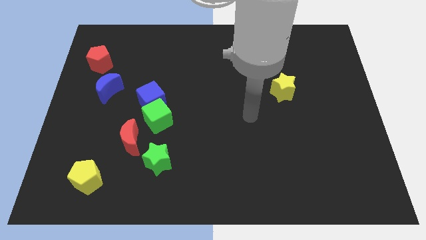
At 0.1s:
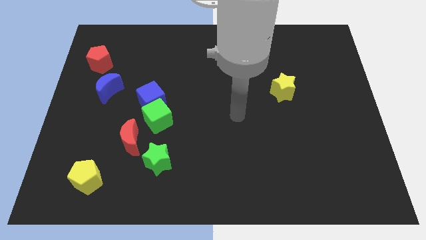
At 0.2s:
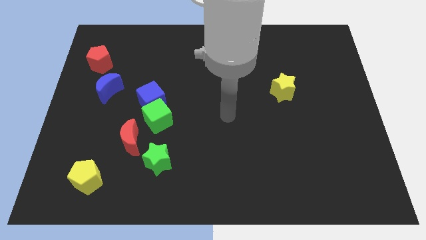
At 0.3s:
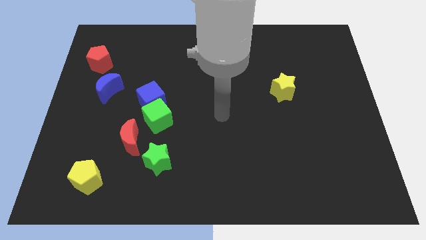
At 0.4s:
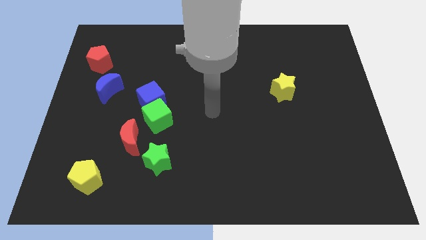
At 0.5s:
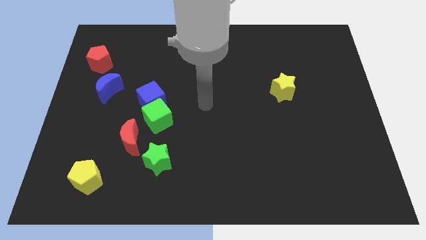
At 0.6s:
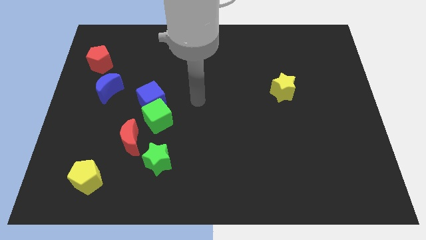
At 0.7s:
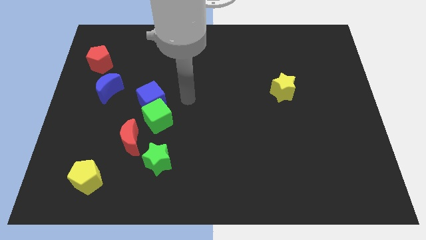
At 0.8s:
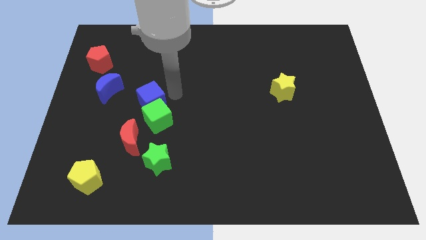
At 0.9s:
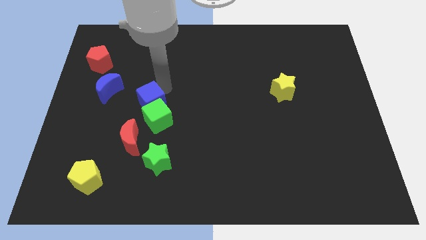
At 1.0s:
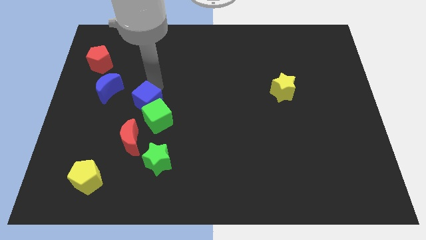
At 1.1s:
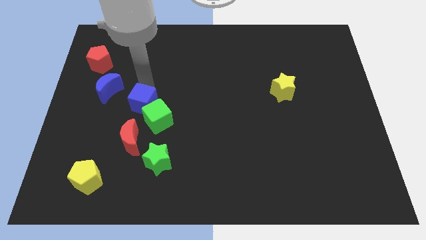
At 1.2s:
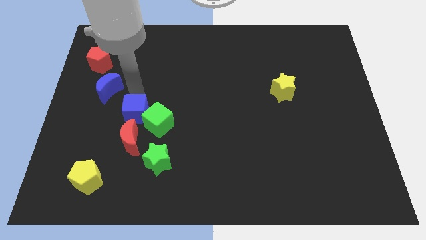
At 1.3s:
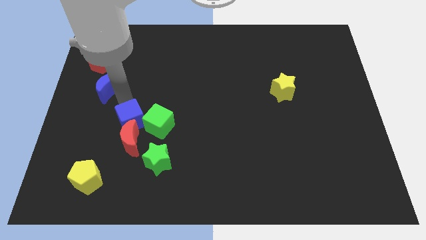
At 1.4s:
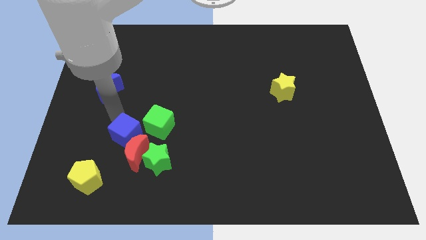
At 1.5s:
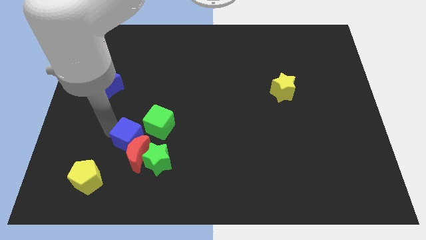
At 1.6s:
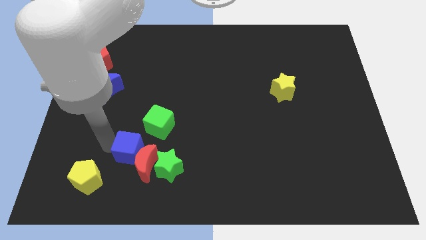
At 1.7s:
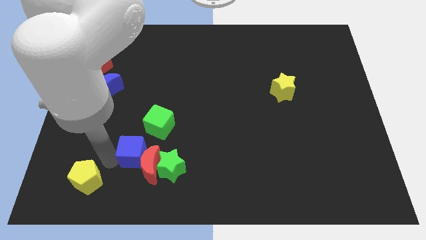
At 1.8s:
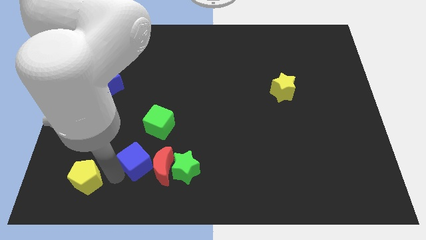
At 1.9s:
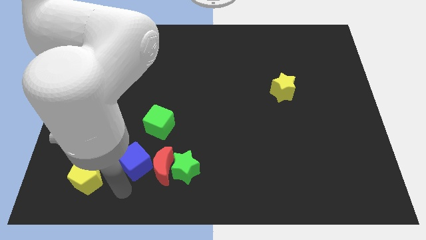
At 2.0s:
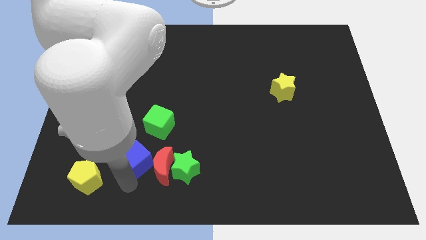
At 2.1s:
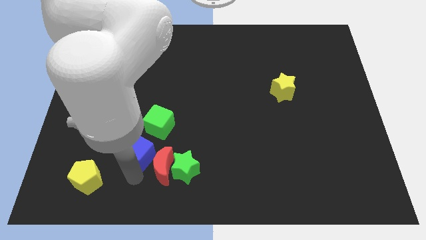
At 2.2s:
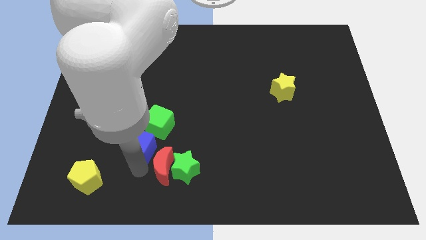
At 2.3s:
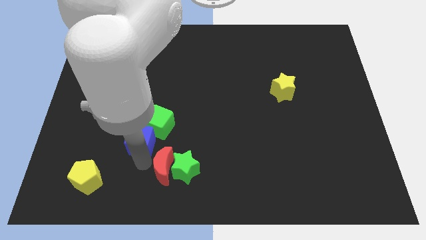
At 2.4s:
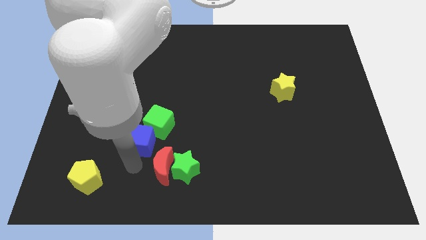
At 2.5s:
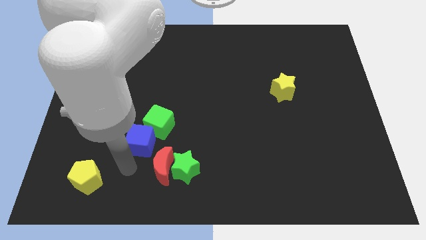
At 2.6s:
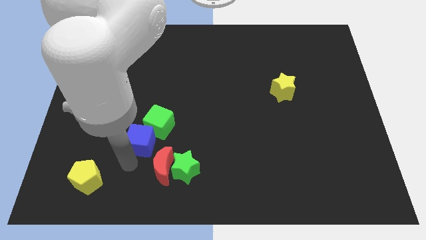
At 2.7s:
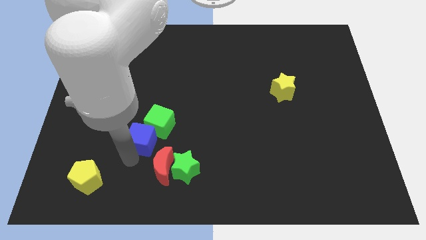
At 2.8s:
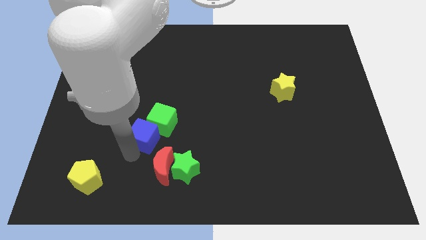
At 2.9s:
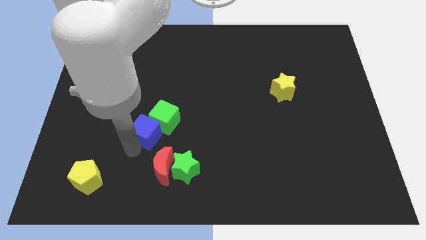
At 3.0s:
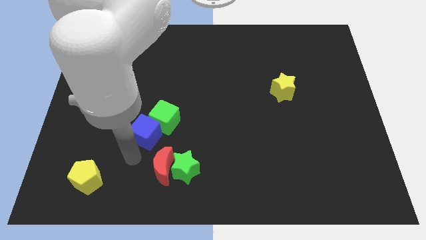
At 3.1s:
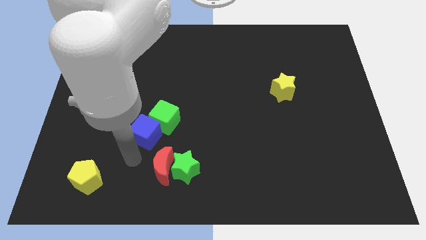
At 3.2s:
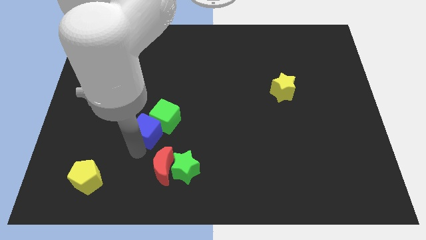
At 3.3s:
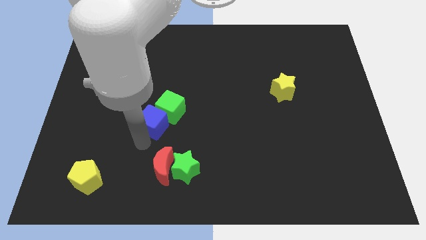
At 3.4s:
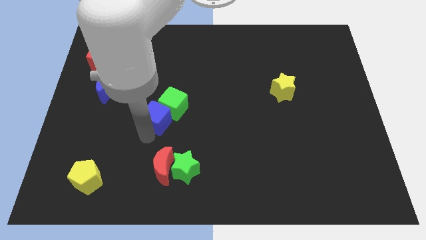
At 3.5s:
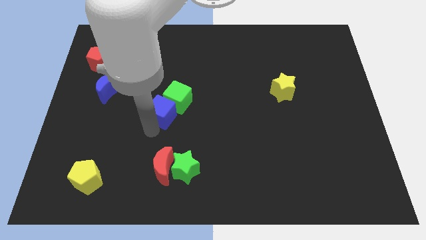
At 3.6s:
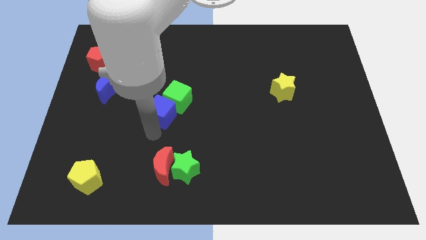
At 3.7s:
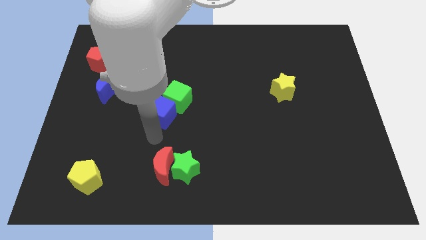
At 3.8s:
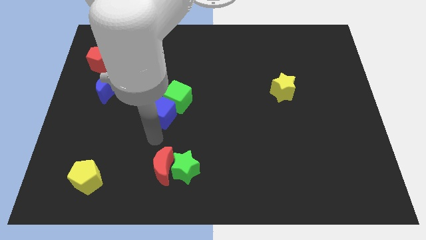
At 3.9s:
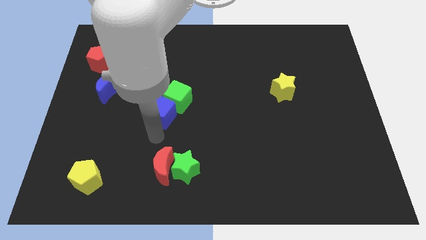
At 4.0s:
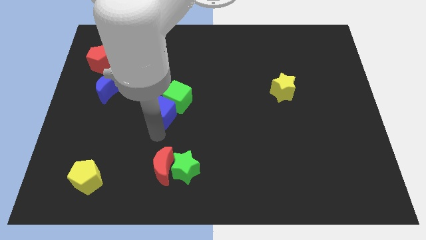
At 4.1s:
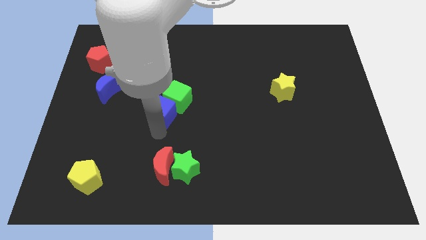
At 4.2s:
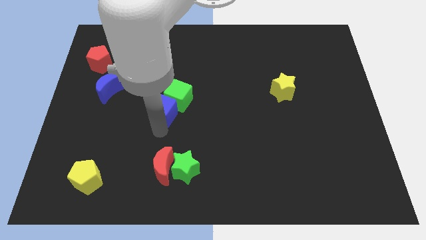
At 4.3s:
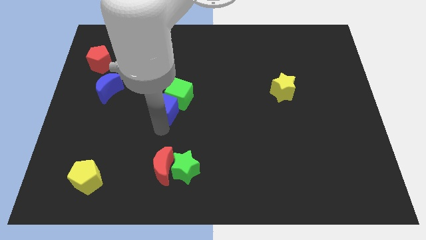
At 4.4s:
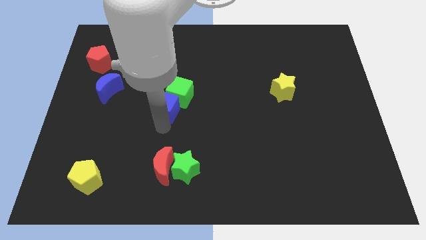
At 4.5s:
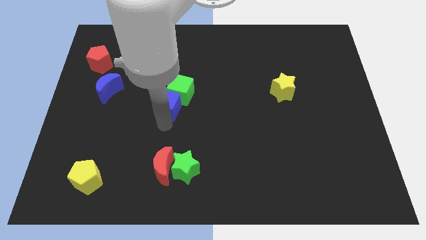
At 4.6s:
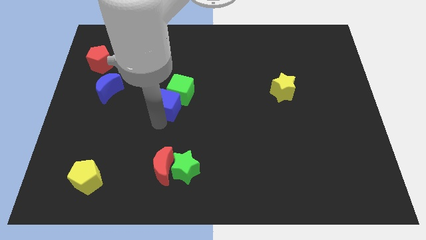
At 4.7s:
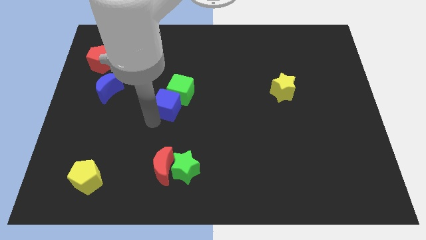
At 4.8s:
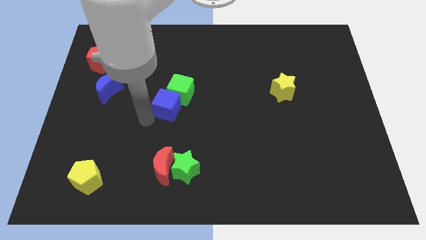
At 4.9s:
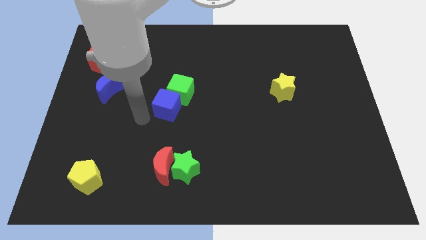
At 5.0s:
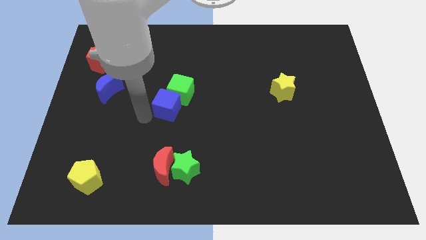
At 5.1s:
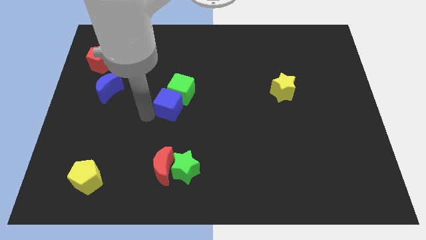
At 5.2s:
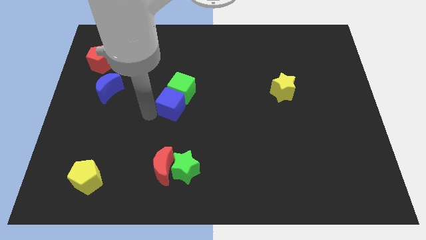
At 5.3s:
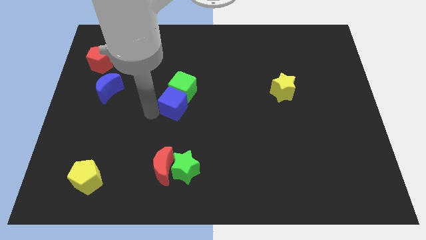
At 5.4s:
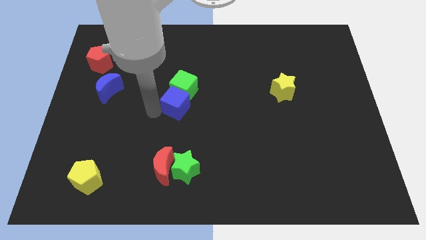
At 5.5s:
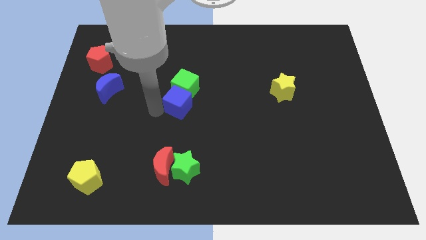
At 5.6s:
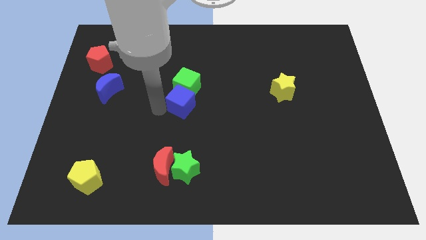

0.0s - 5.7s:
push the blue cube to the right somewhat

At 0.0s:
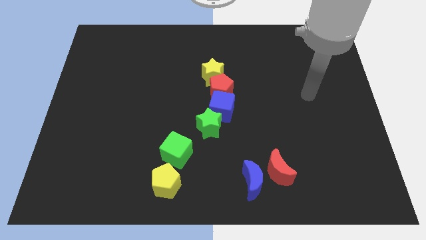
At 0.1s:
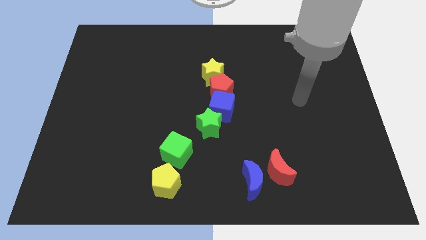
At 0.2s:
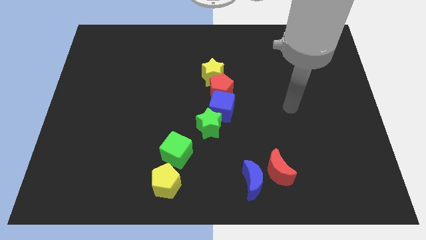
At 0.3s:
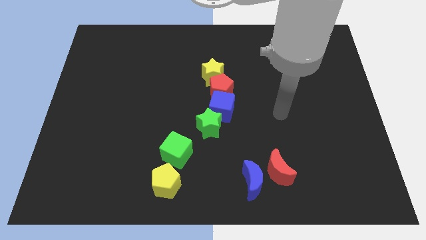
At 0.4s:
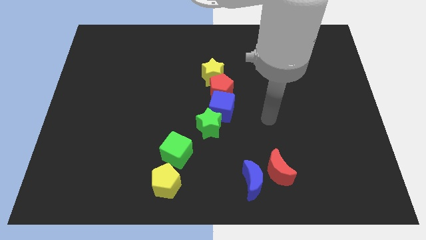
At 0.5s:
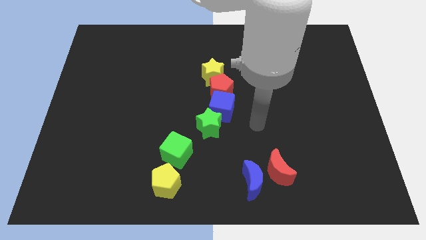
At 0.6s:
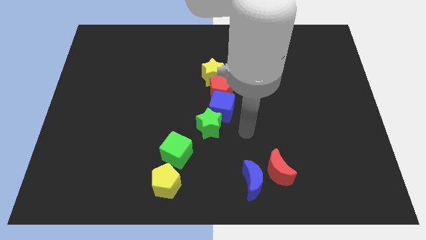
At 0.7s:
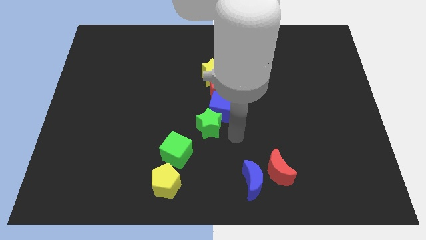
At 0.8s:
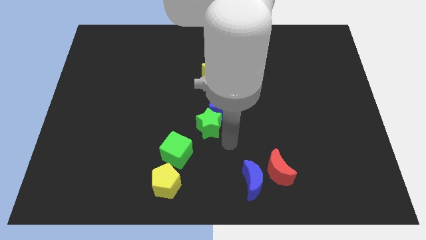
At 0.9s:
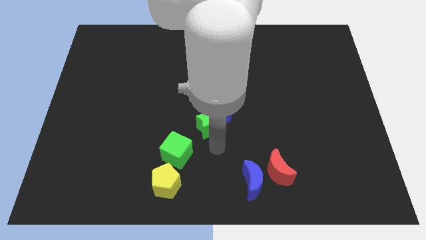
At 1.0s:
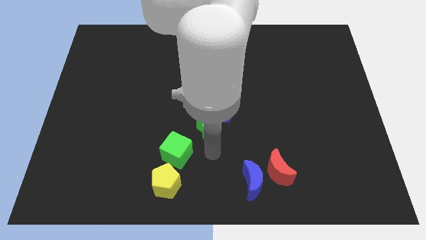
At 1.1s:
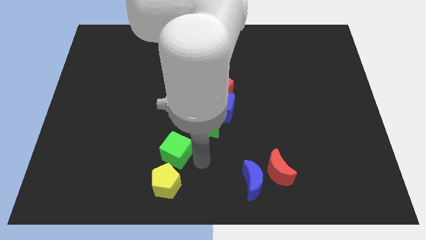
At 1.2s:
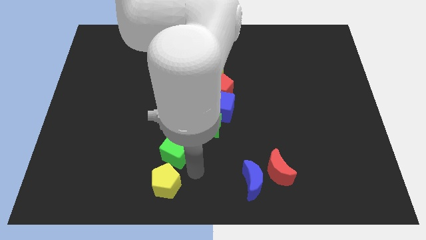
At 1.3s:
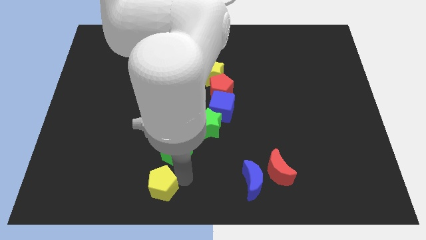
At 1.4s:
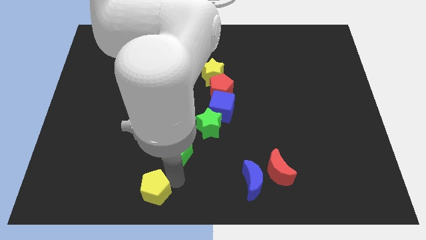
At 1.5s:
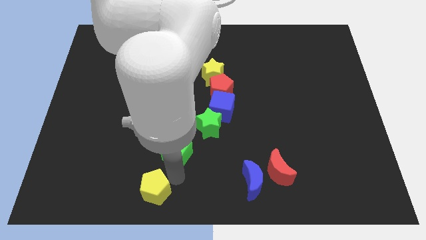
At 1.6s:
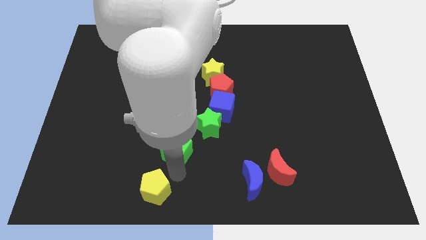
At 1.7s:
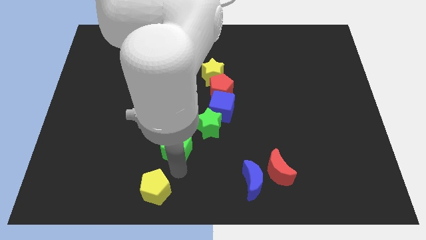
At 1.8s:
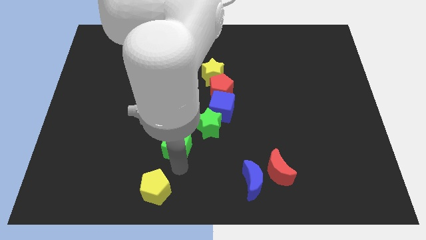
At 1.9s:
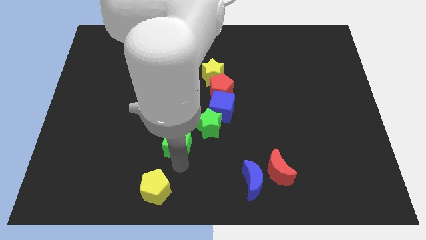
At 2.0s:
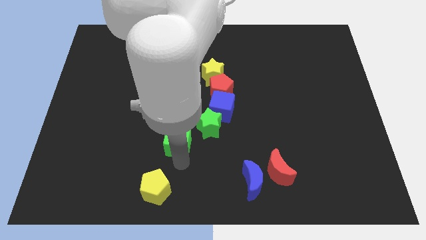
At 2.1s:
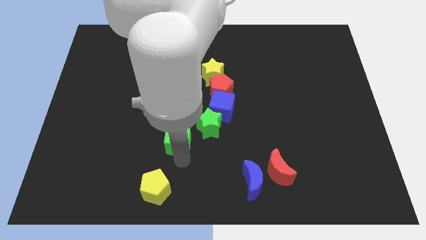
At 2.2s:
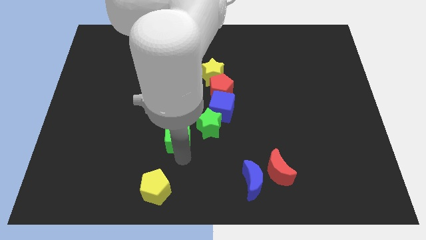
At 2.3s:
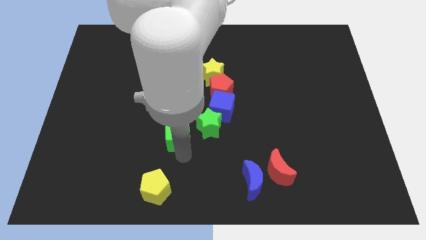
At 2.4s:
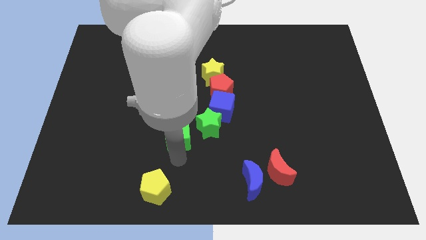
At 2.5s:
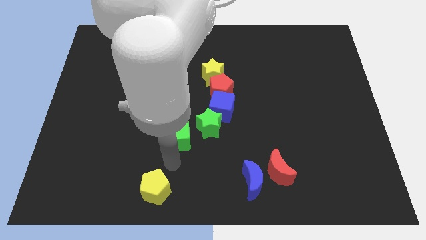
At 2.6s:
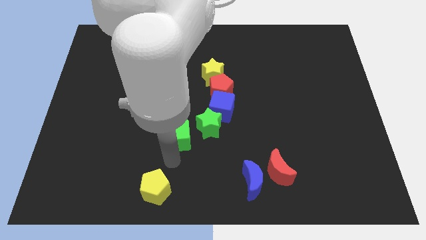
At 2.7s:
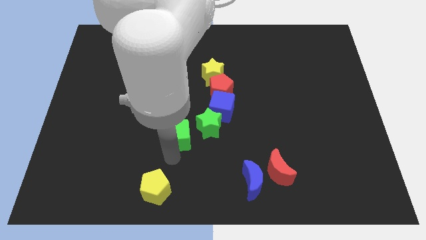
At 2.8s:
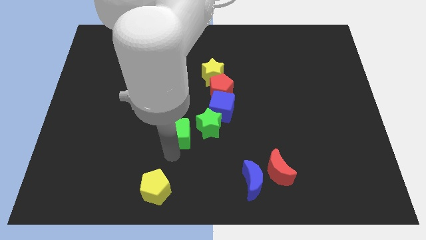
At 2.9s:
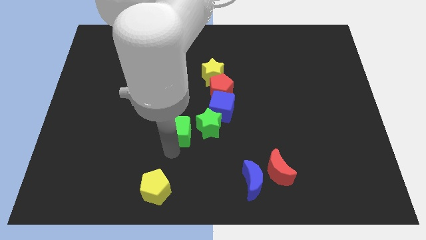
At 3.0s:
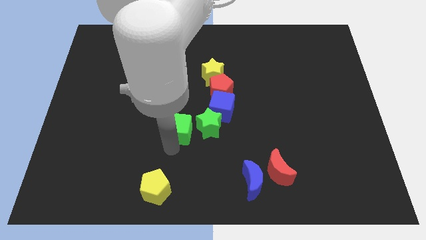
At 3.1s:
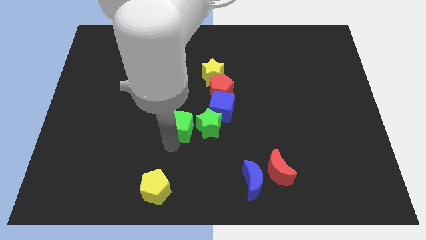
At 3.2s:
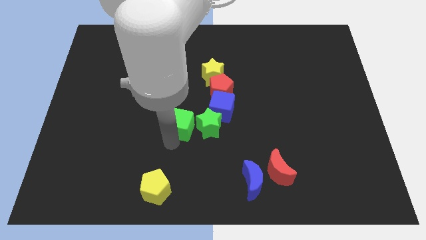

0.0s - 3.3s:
push the green cube upwards a bit
